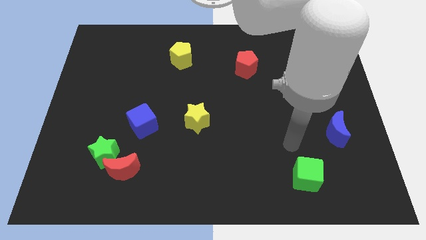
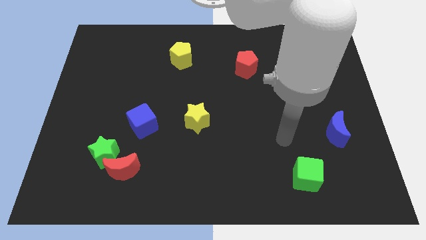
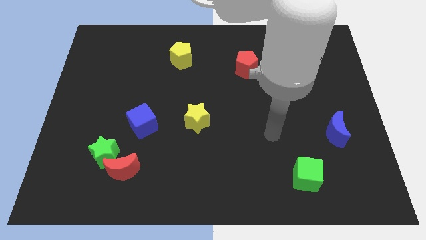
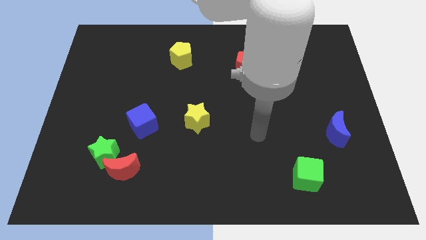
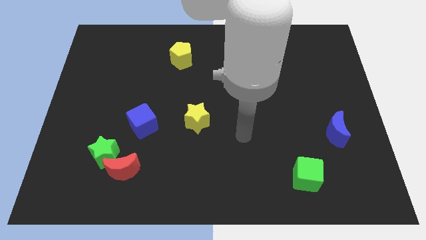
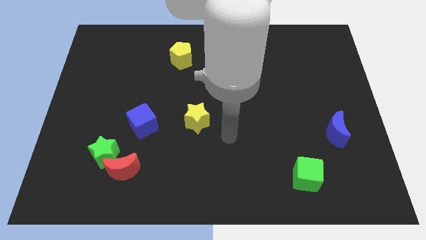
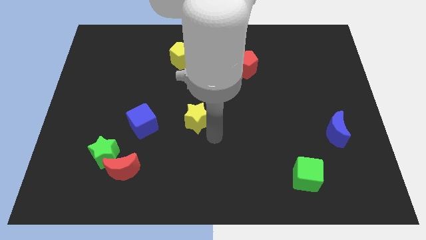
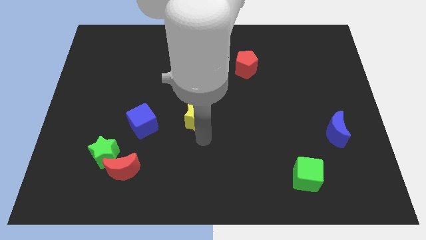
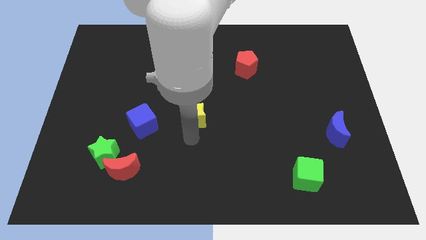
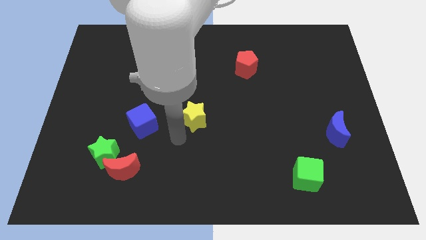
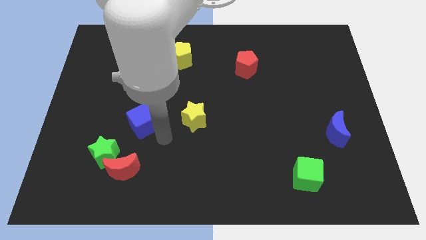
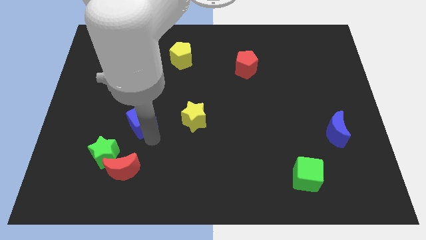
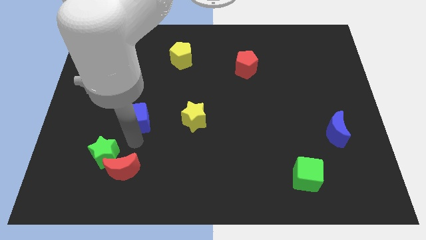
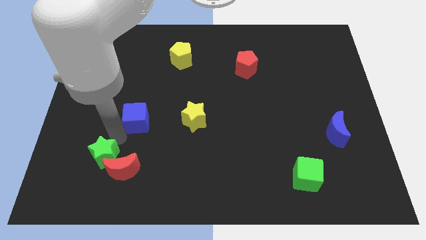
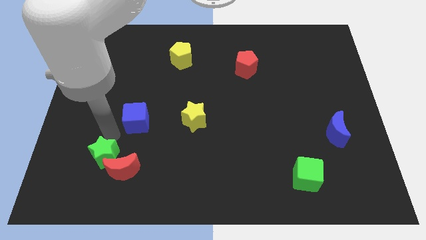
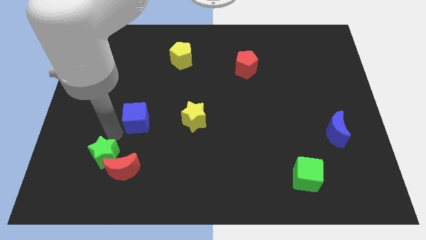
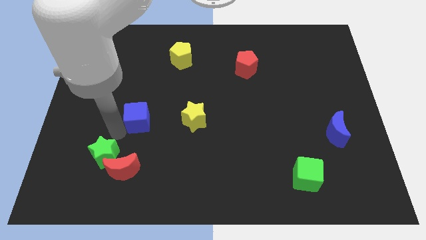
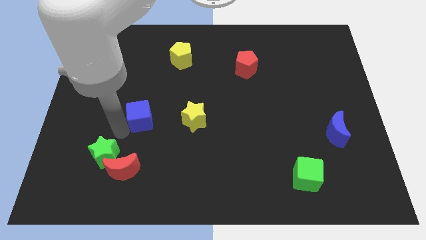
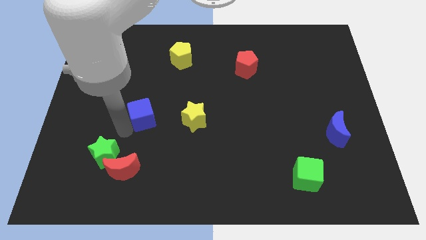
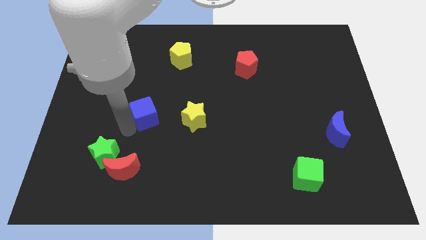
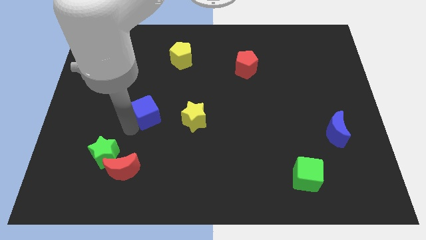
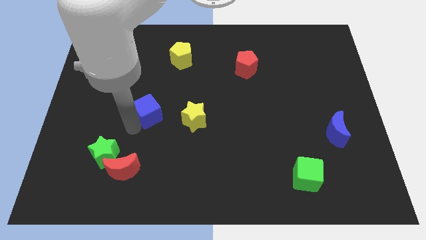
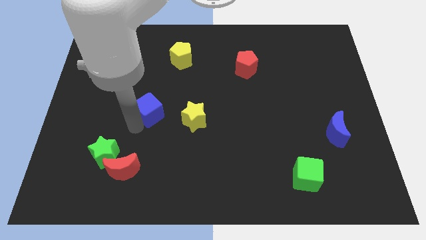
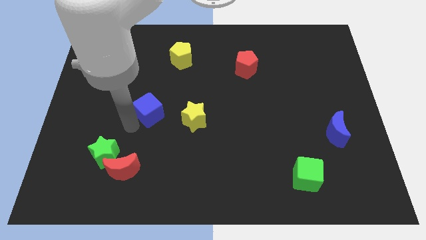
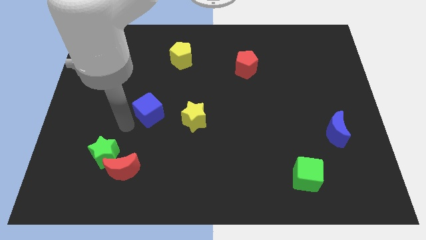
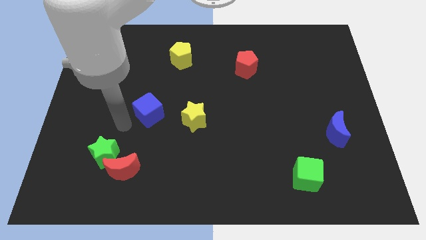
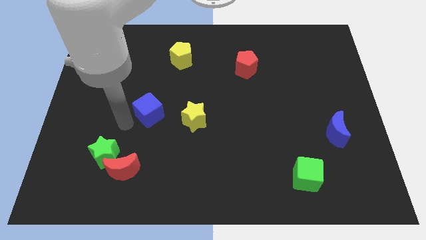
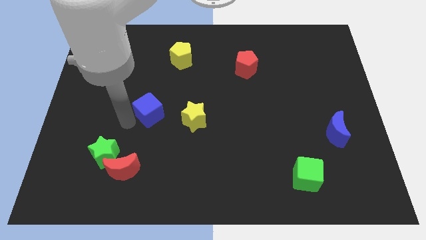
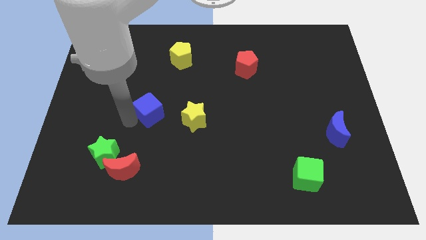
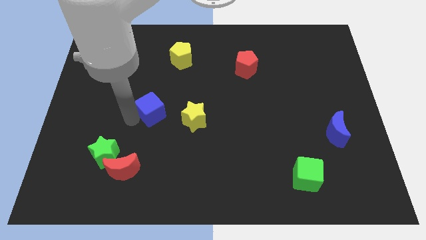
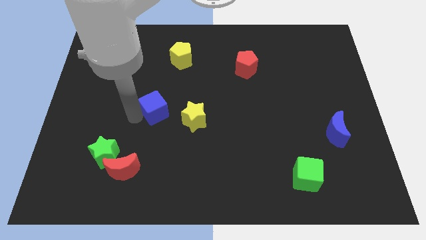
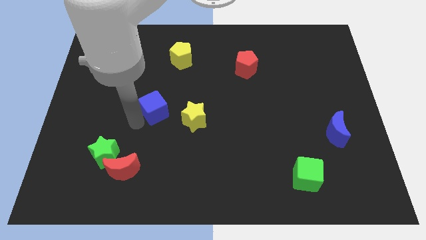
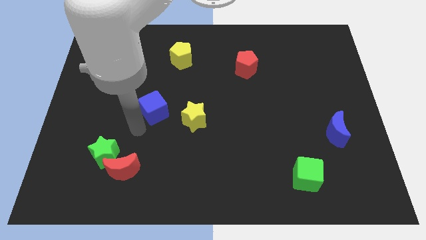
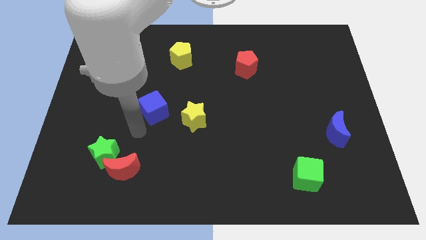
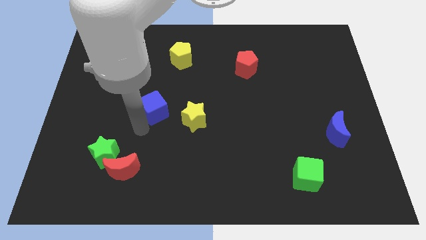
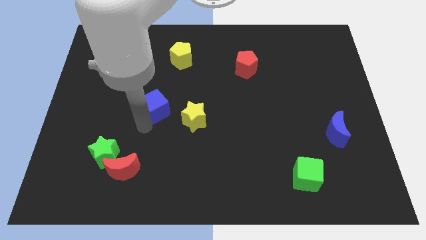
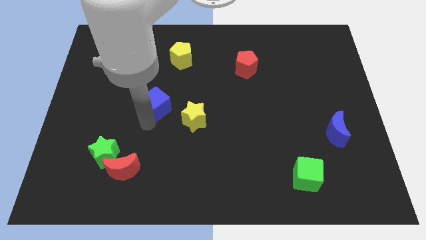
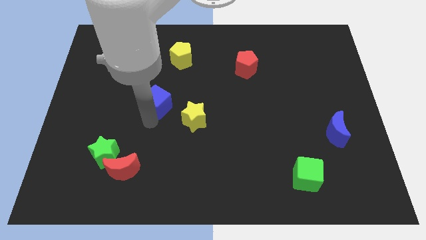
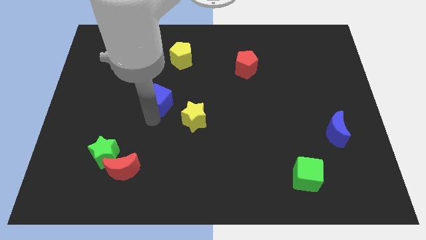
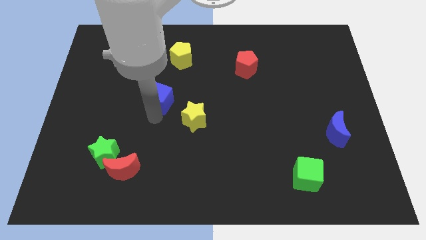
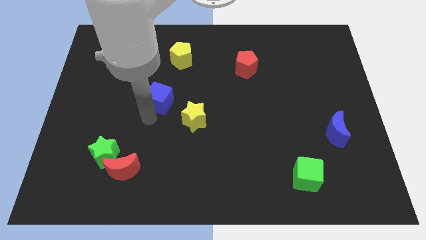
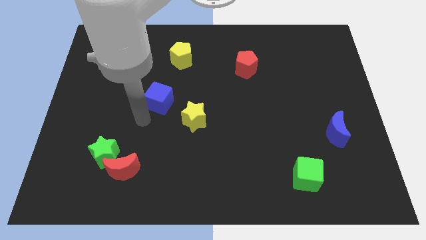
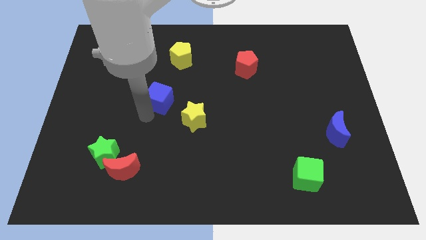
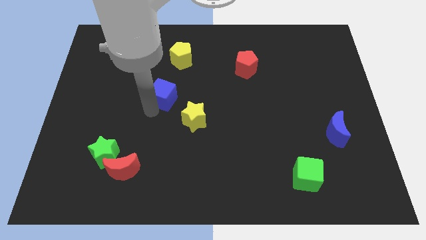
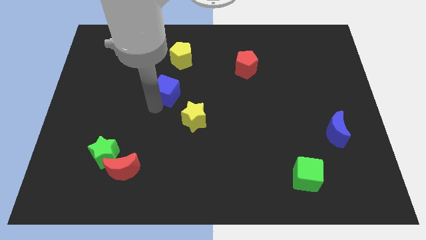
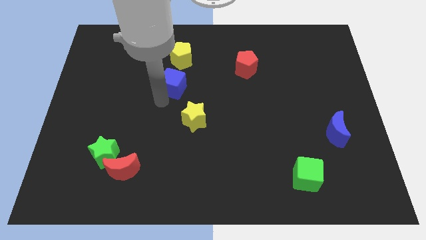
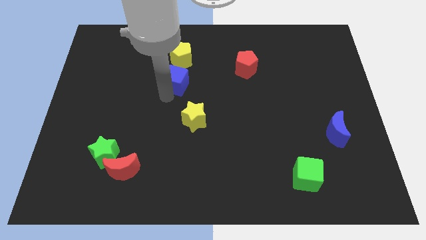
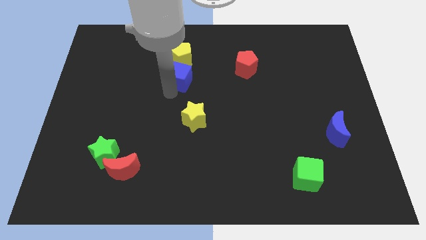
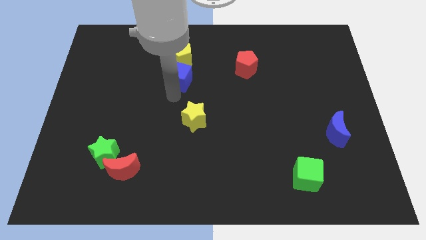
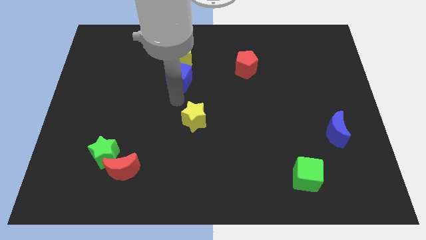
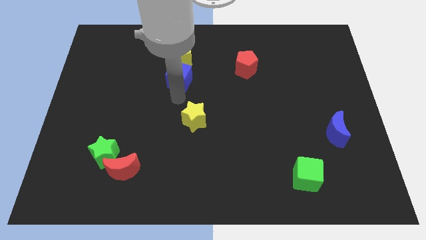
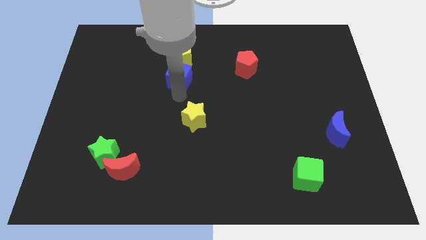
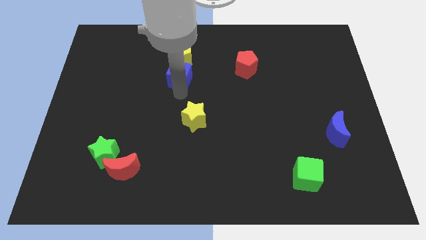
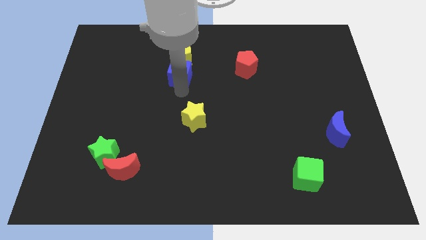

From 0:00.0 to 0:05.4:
put the blue cube to the yellow pentagon

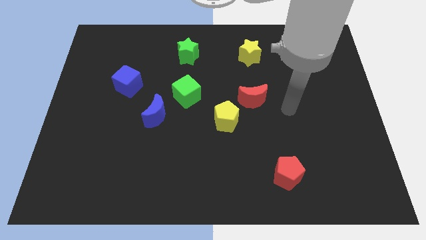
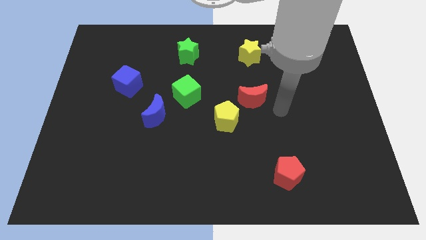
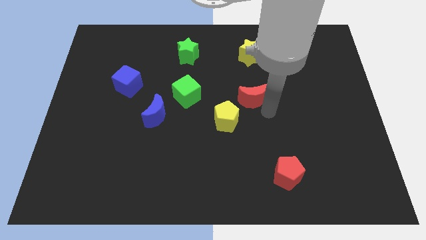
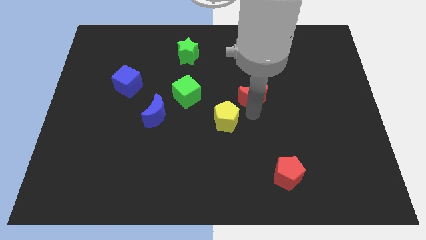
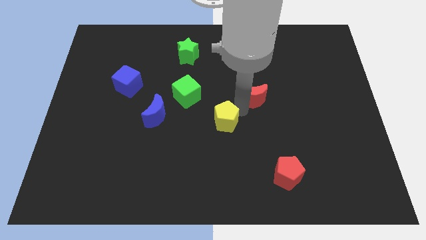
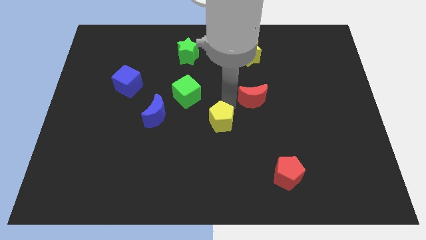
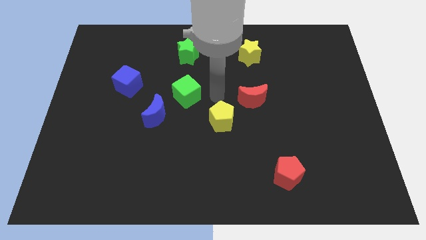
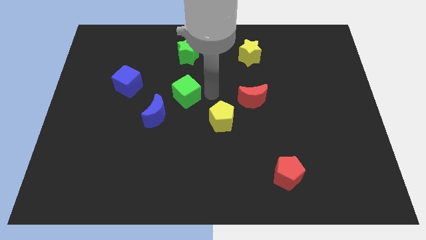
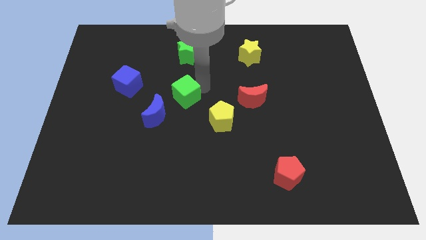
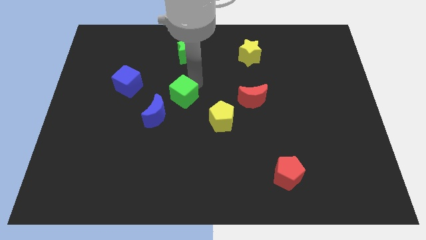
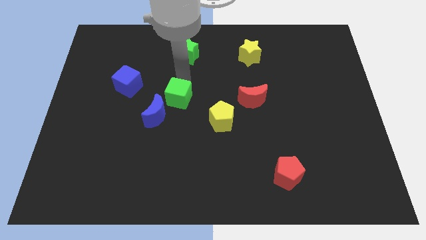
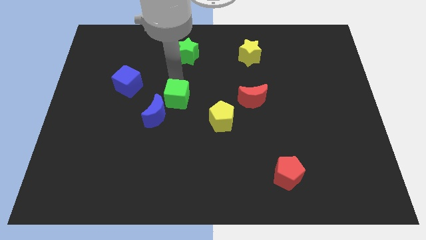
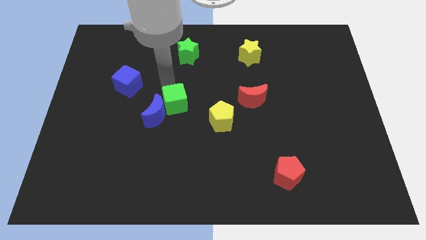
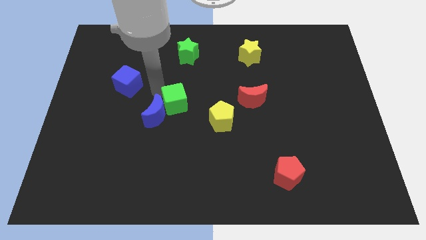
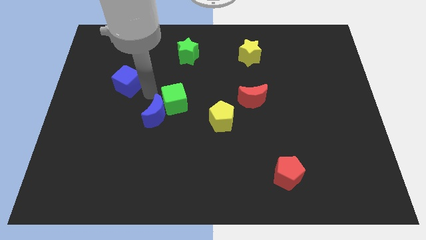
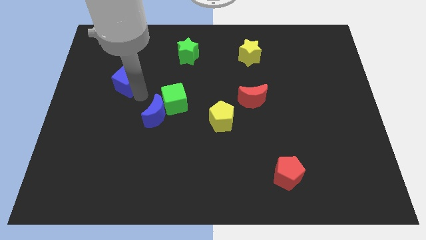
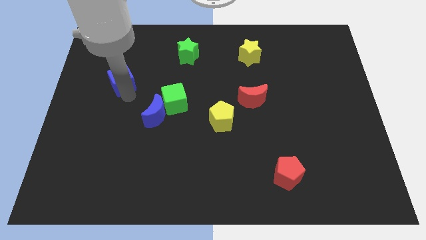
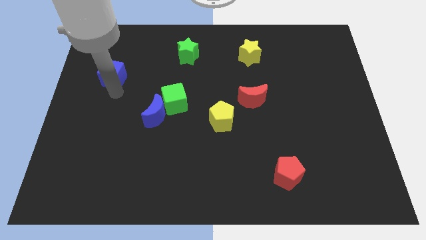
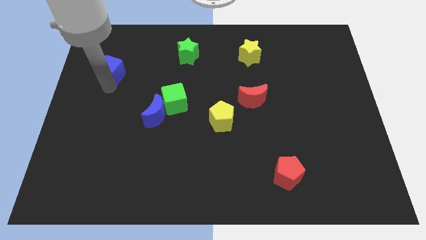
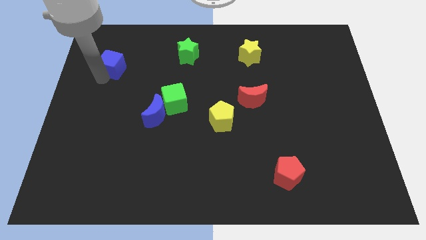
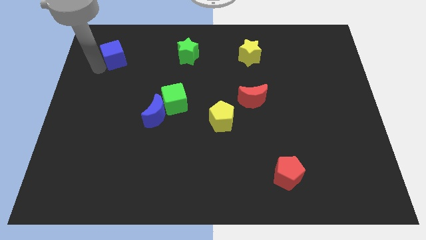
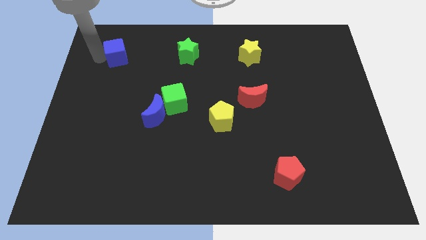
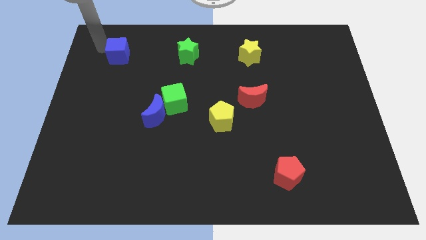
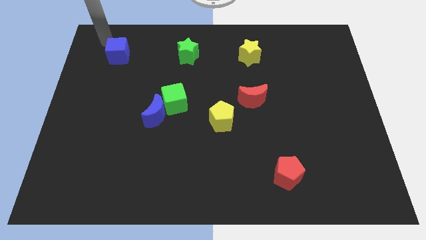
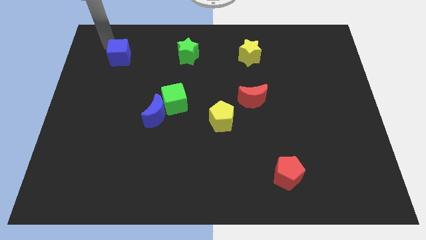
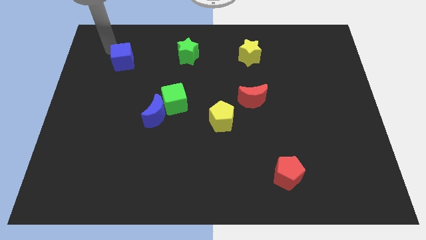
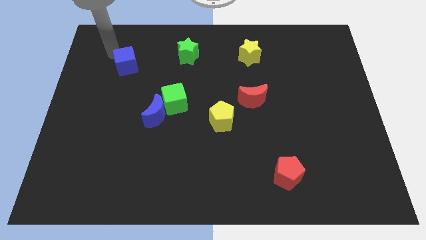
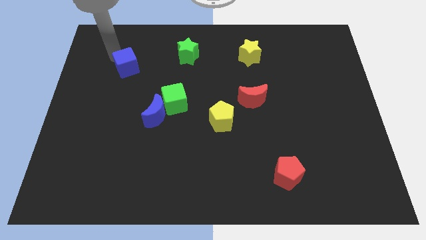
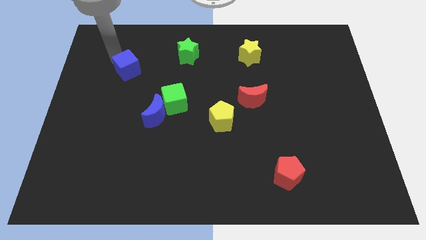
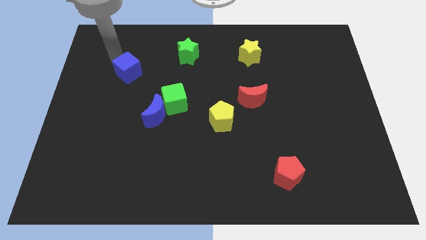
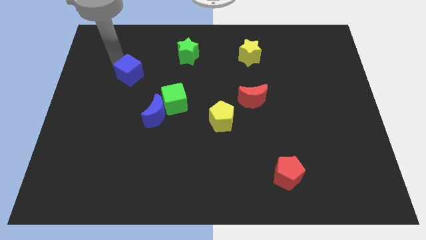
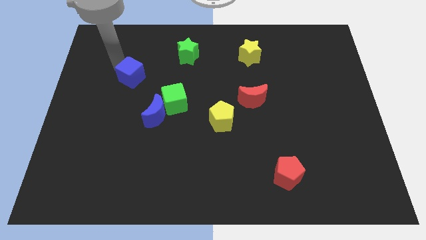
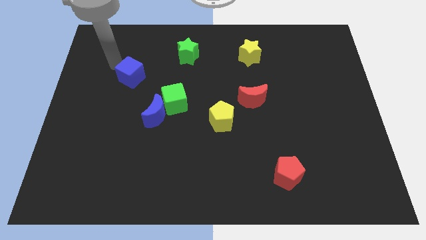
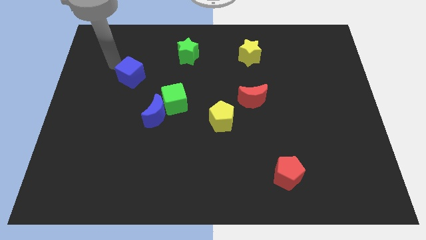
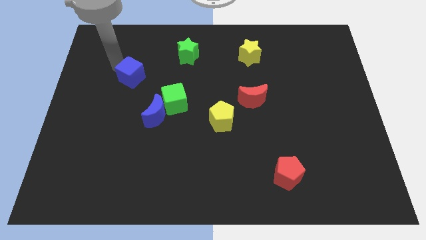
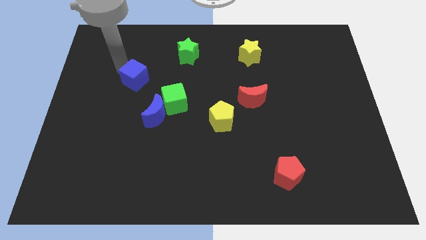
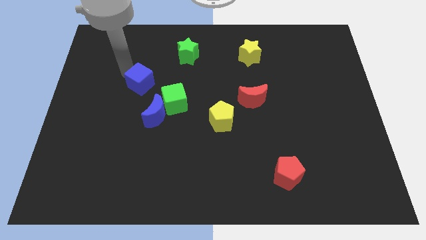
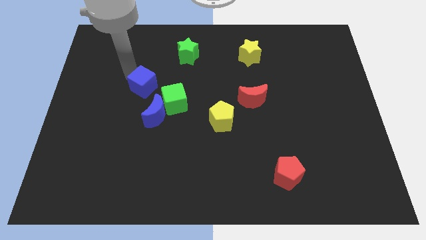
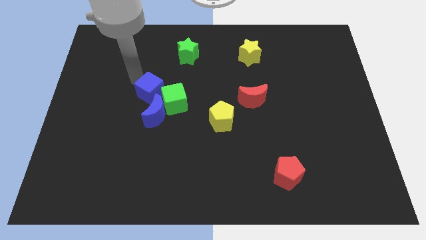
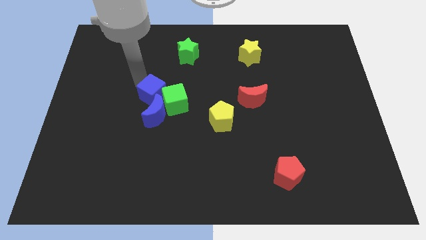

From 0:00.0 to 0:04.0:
slide the blue cube to the green cube
